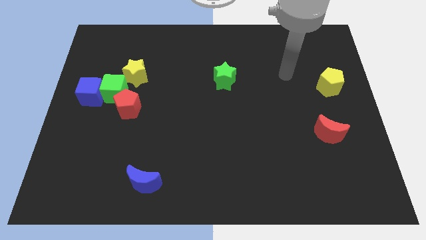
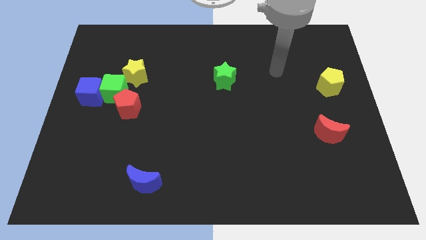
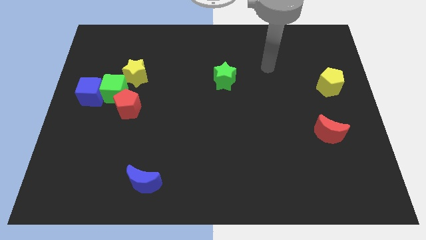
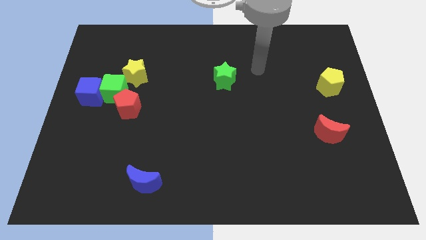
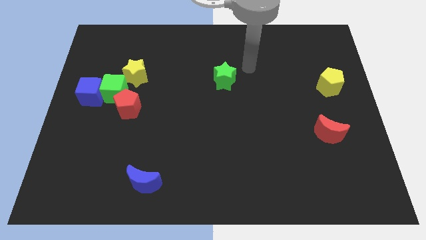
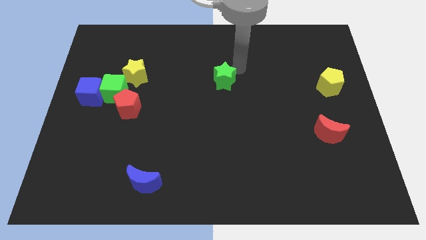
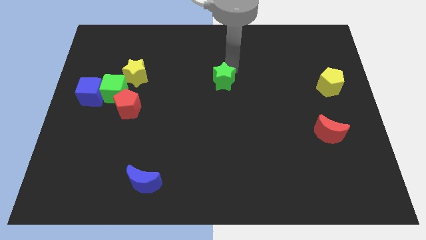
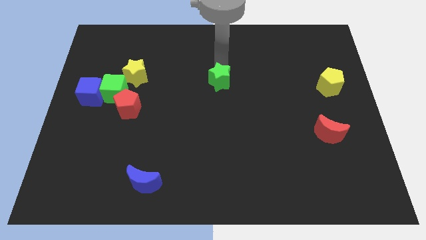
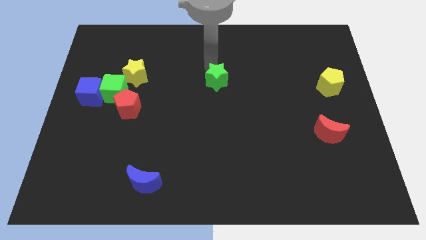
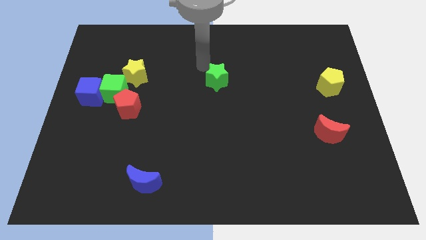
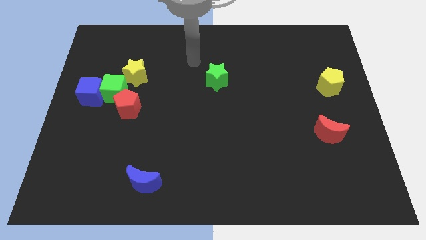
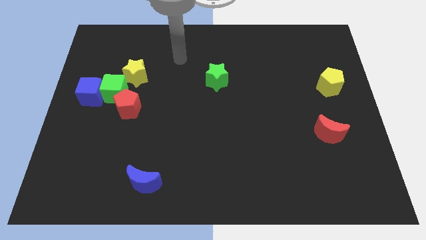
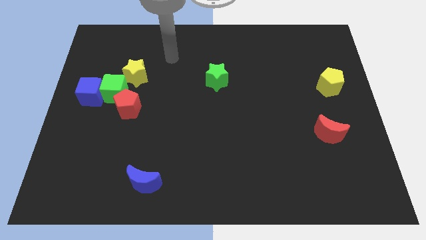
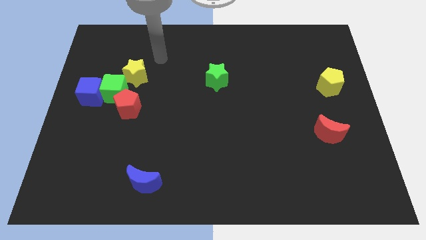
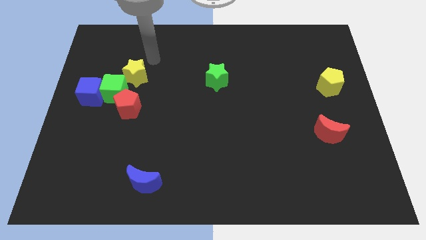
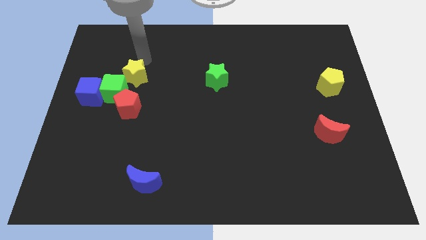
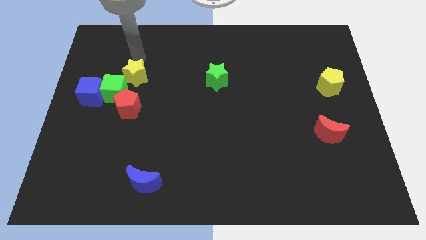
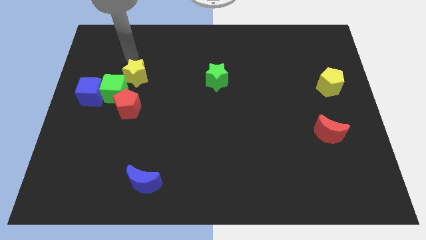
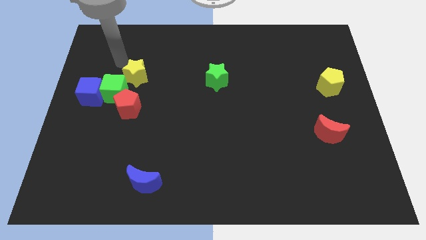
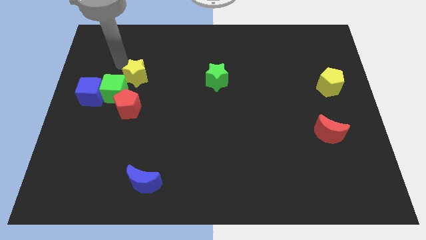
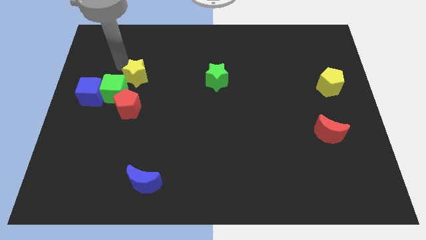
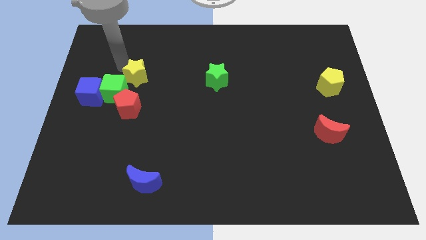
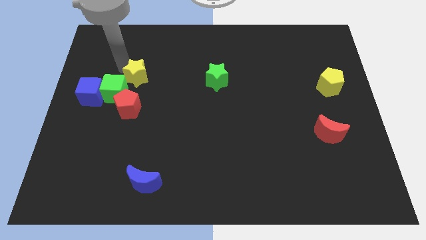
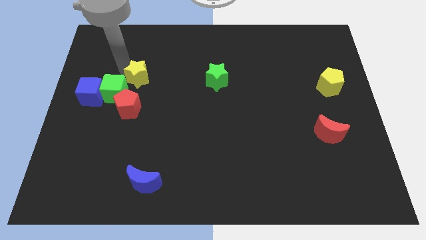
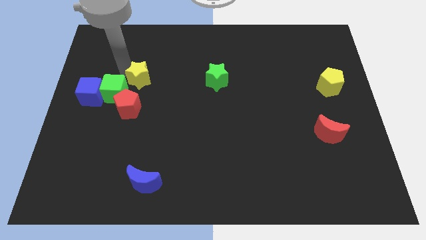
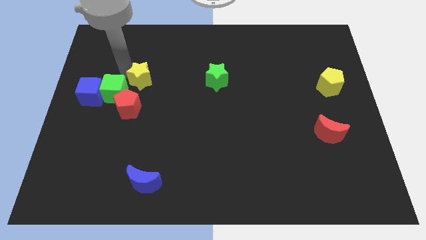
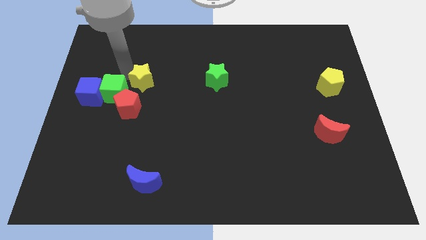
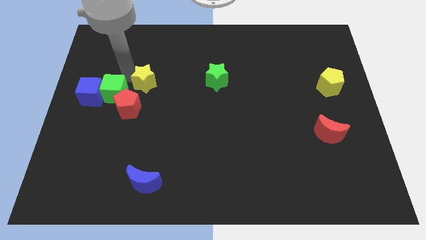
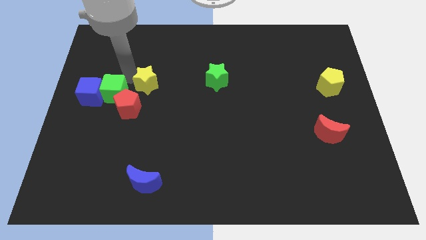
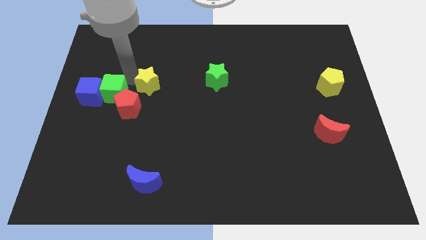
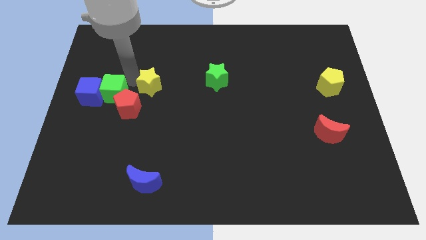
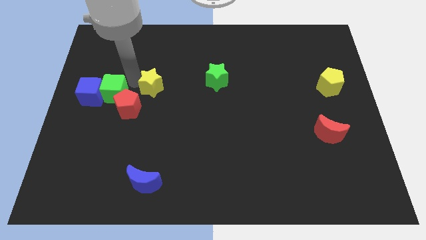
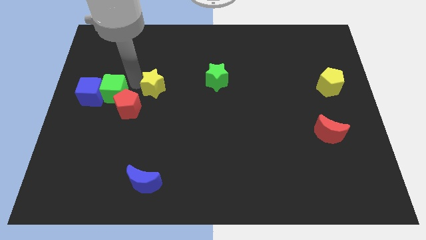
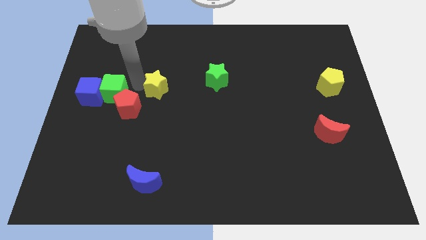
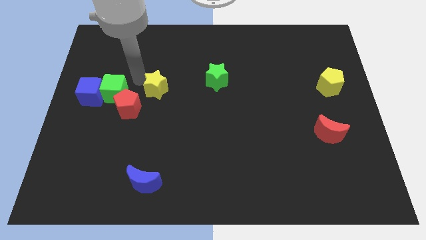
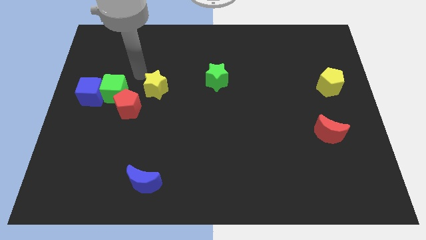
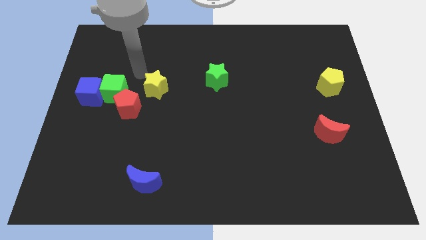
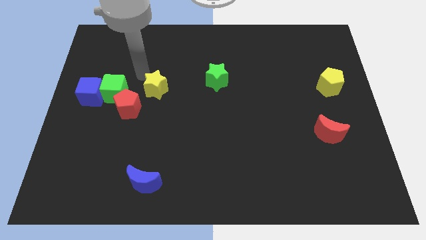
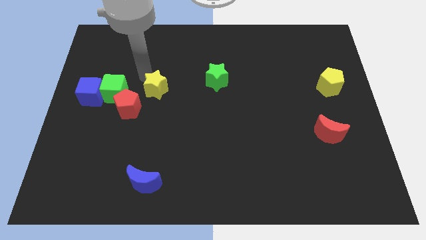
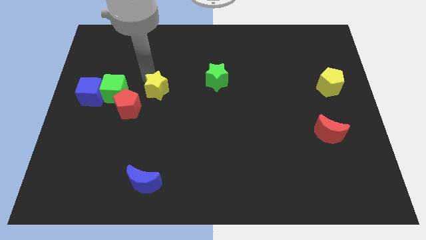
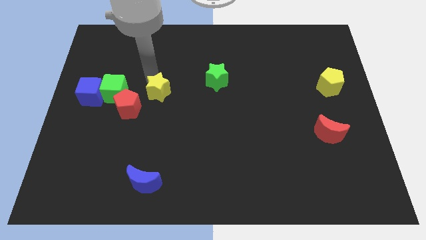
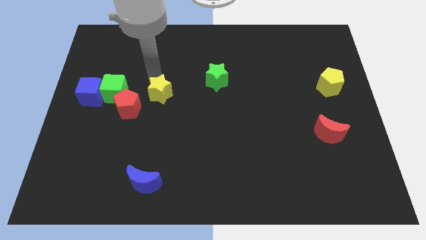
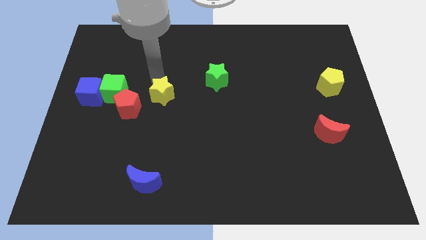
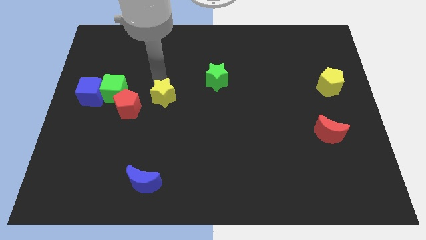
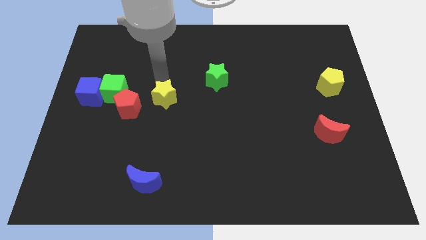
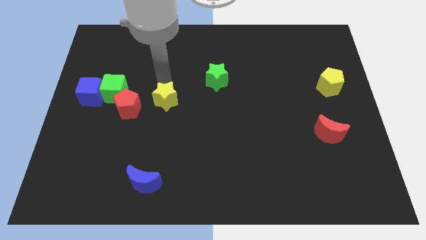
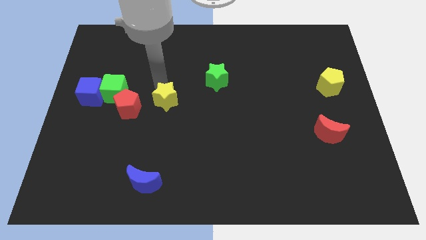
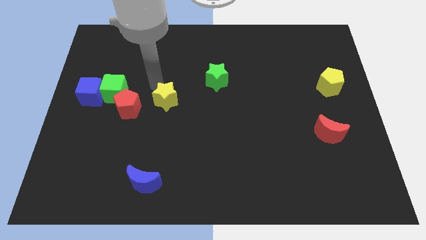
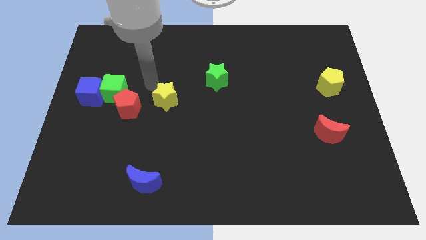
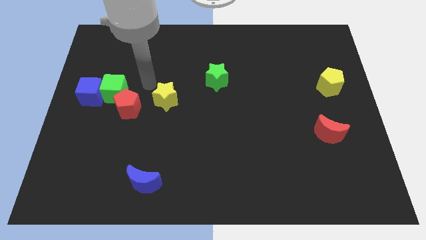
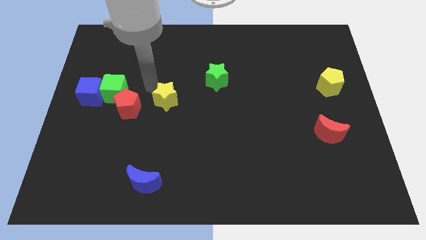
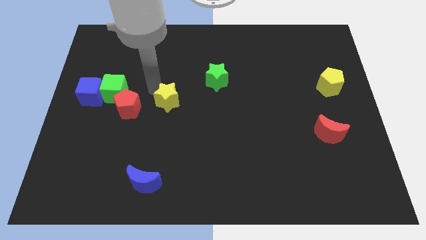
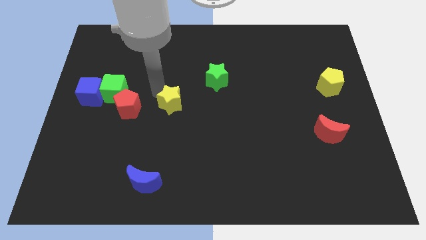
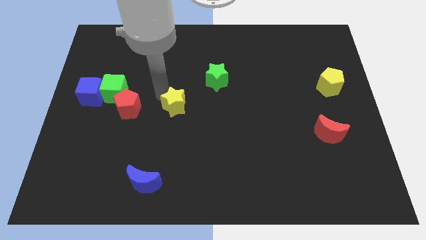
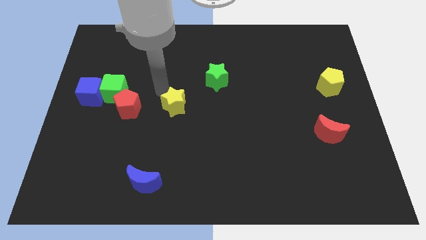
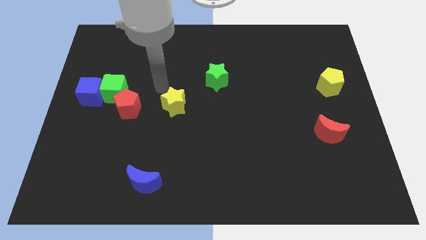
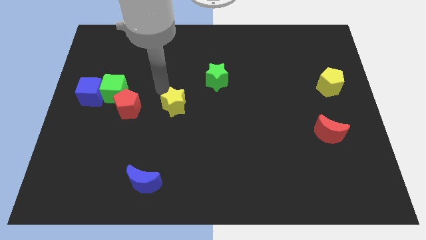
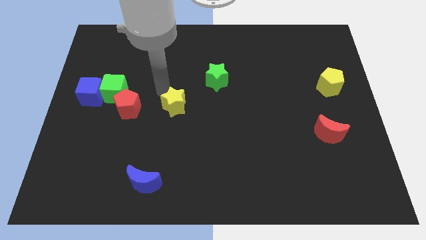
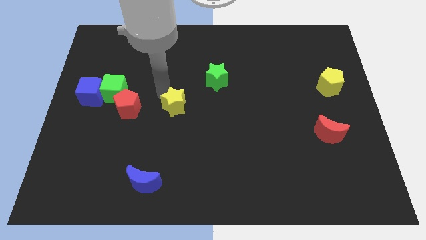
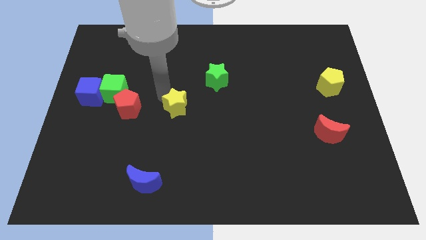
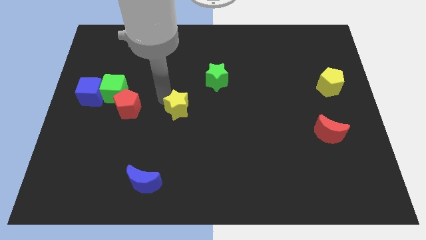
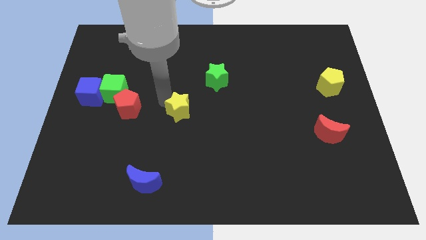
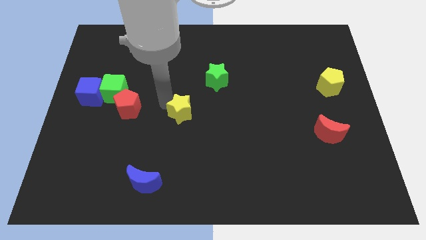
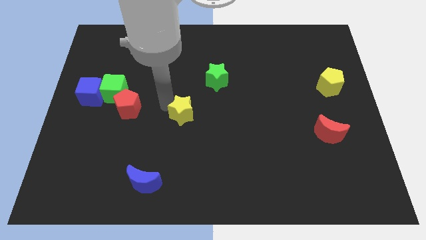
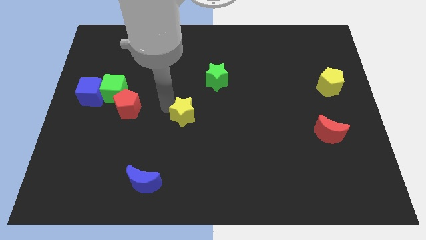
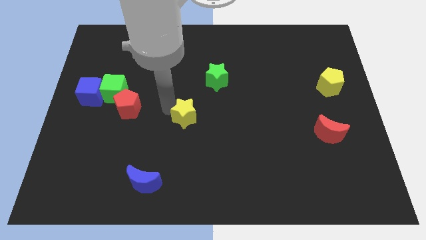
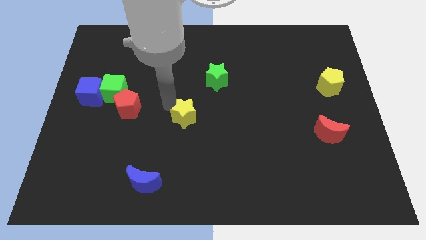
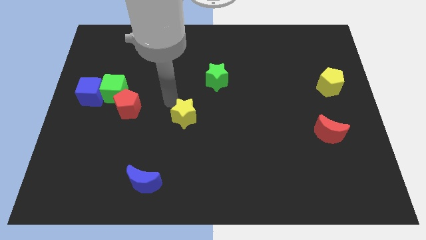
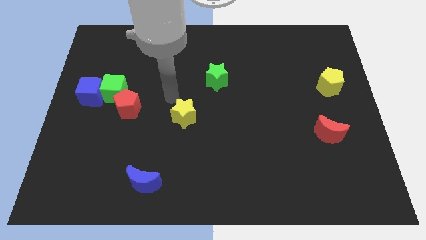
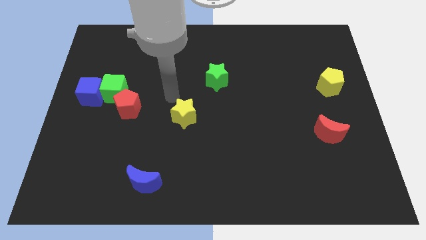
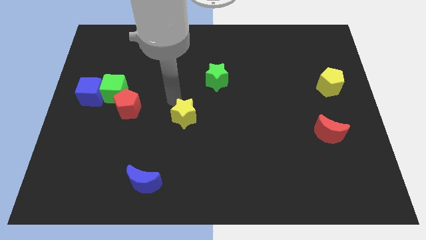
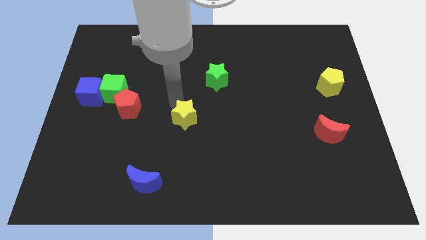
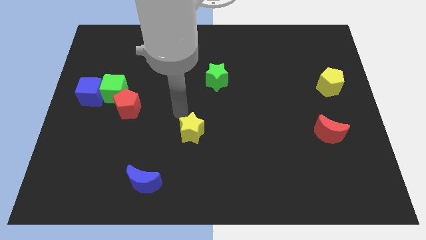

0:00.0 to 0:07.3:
slide the yellow star downwards and then to the right

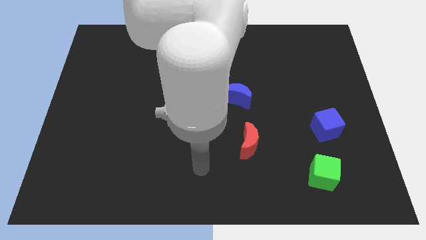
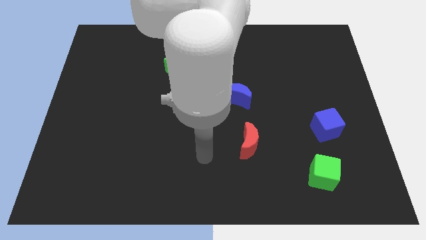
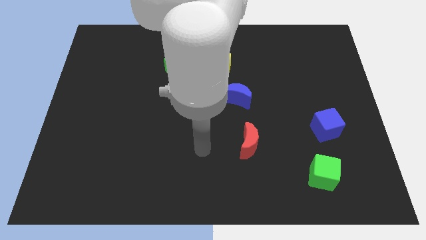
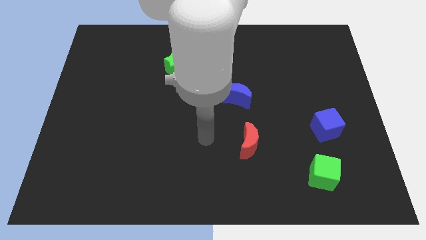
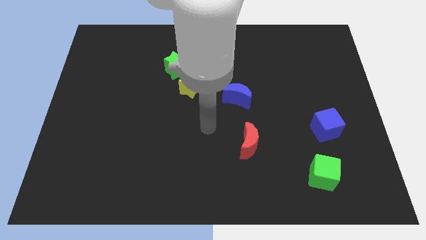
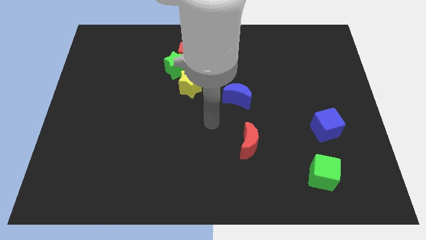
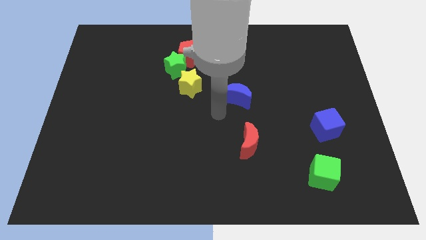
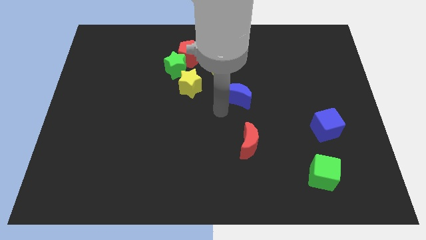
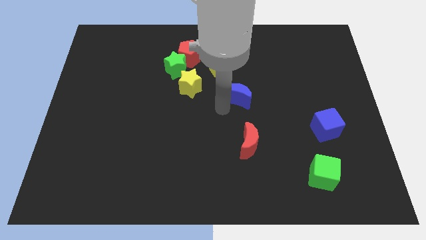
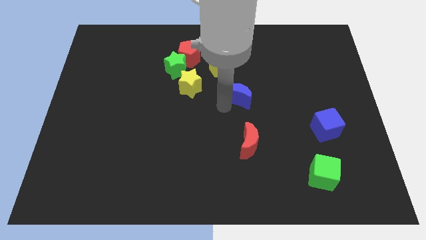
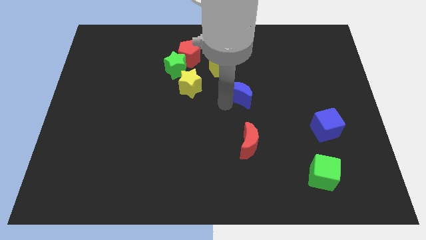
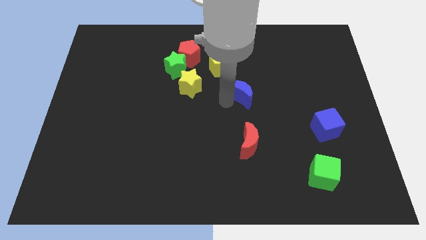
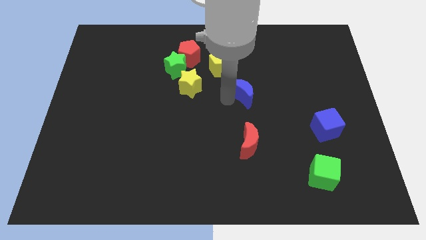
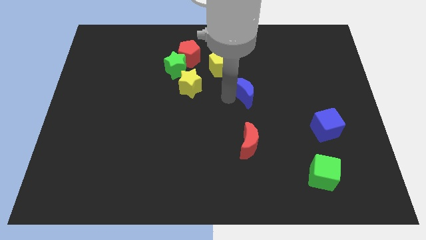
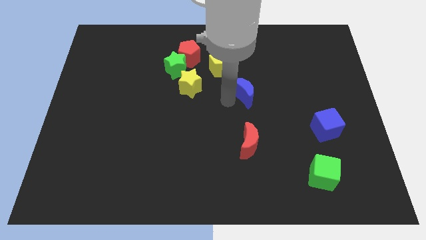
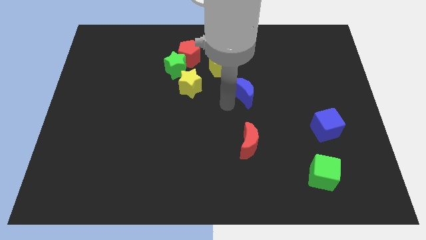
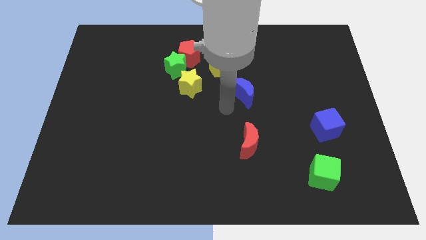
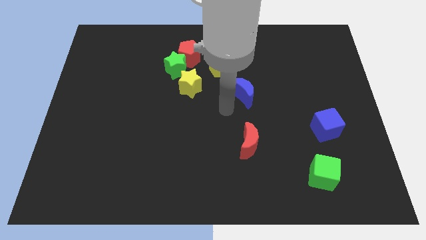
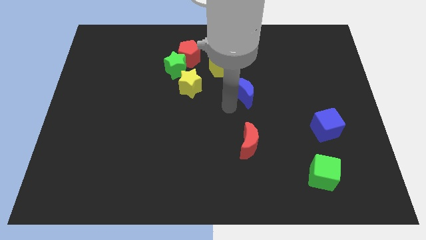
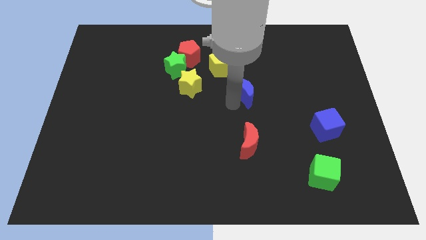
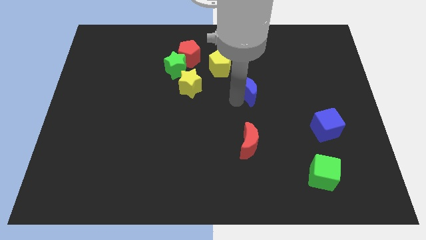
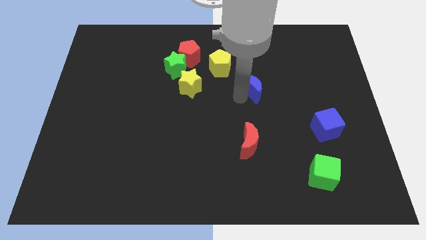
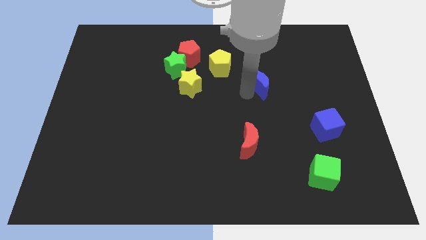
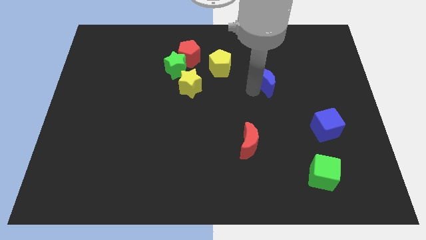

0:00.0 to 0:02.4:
slightly move the blue moon diagonally up and right
